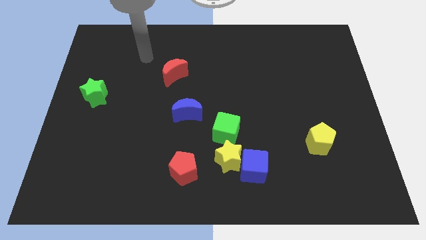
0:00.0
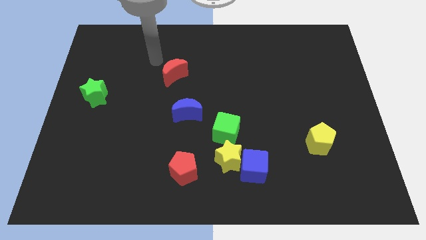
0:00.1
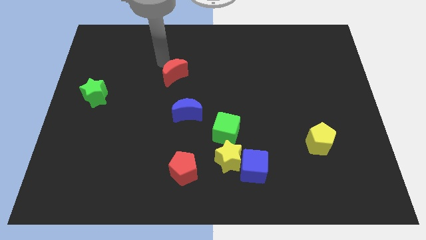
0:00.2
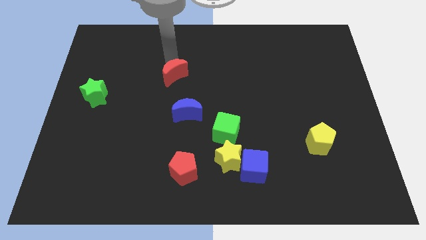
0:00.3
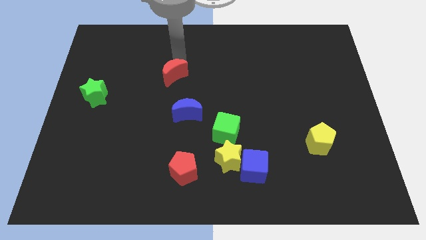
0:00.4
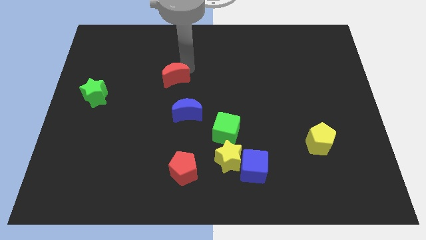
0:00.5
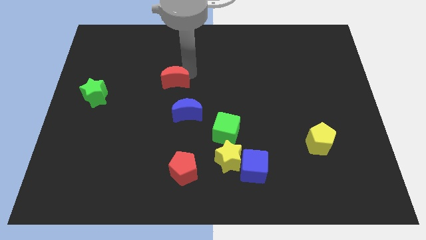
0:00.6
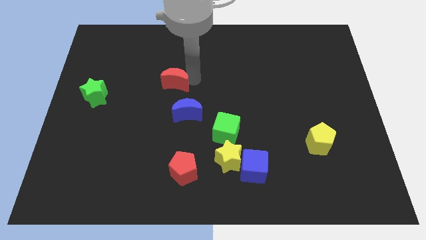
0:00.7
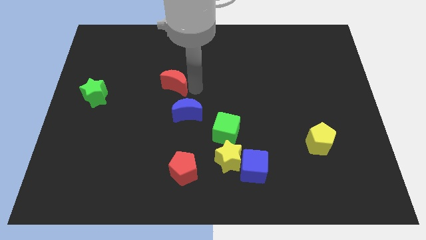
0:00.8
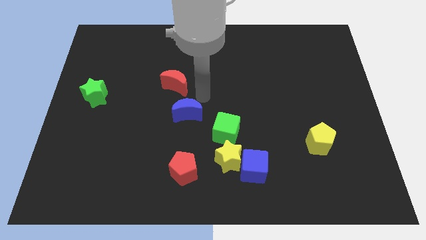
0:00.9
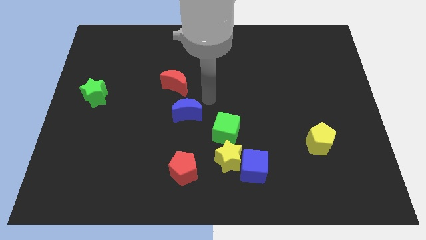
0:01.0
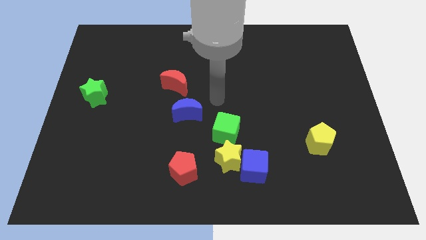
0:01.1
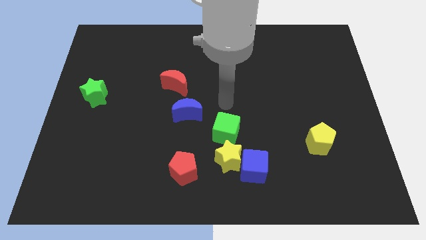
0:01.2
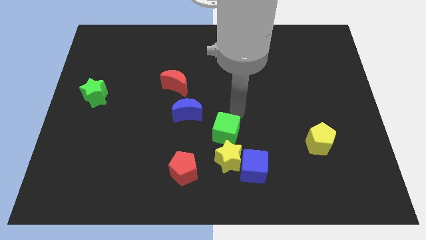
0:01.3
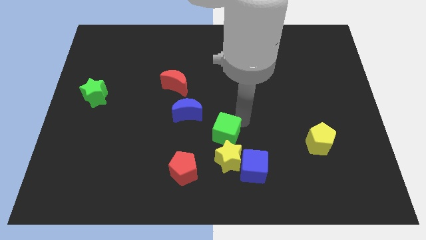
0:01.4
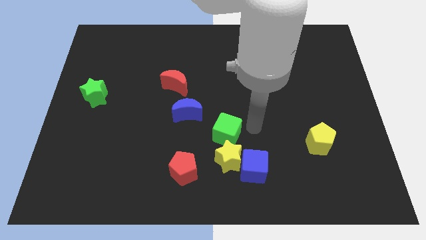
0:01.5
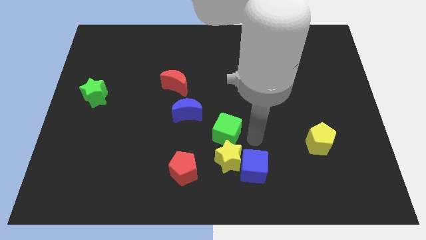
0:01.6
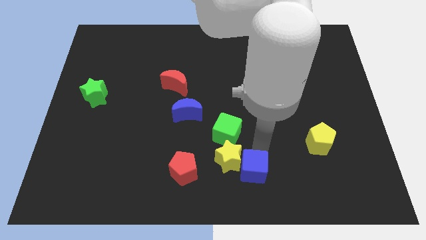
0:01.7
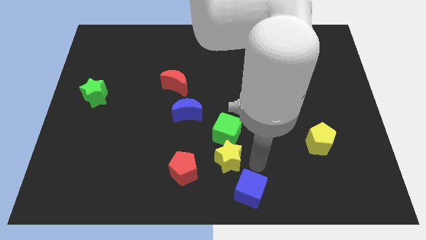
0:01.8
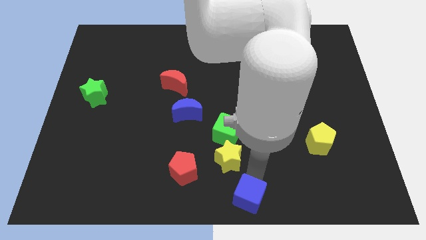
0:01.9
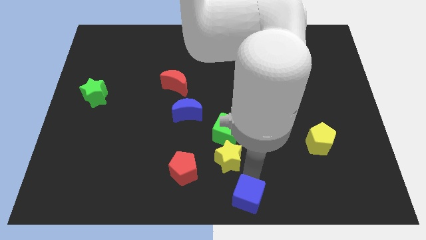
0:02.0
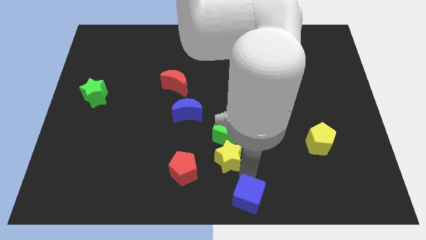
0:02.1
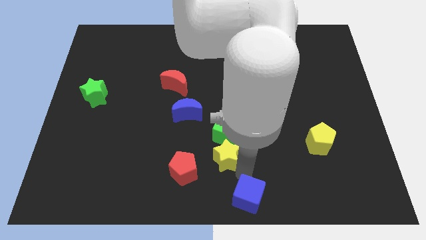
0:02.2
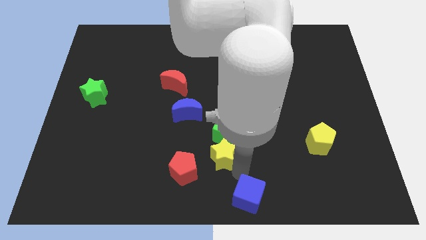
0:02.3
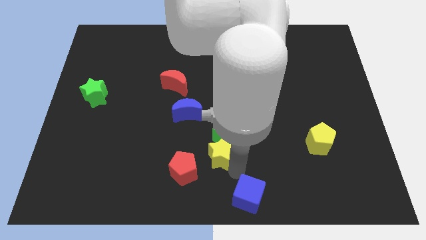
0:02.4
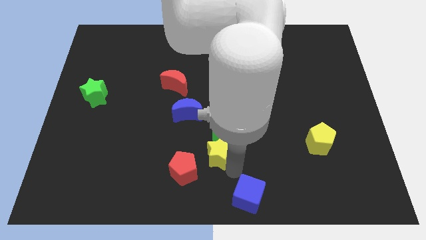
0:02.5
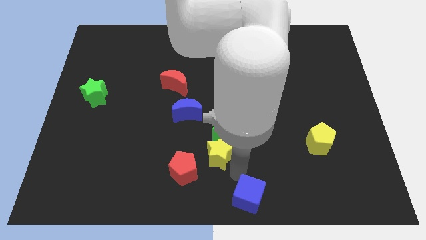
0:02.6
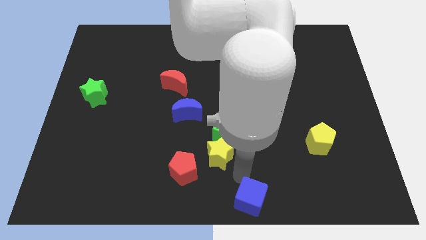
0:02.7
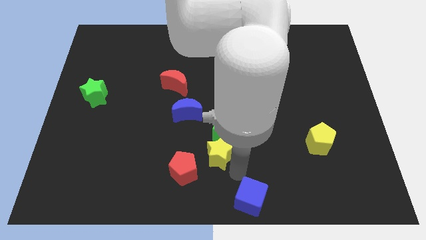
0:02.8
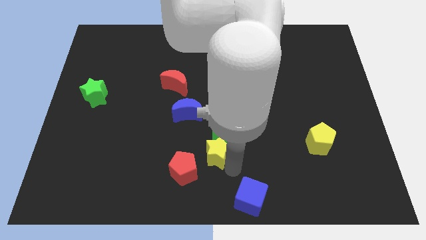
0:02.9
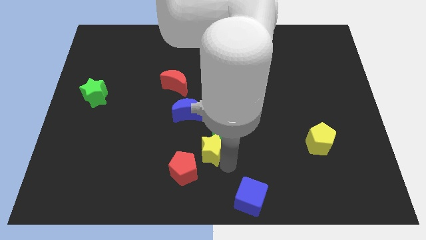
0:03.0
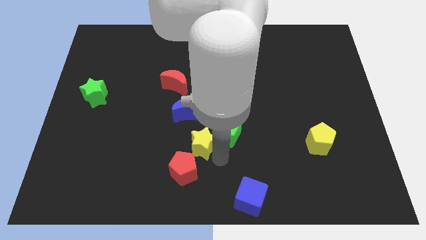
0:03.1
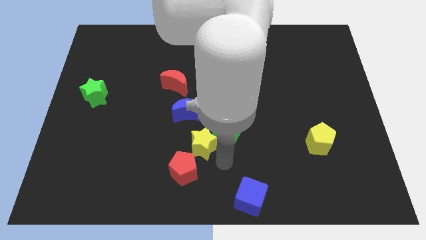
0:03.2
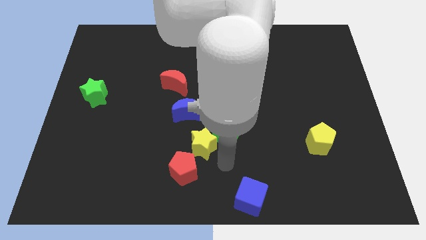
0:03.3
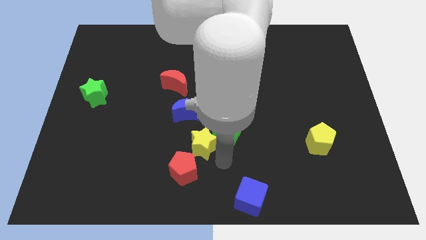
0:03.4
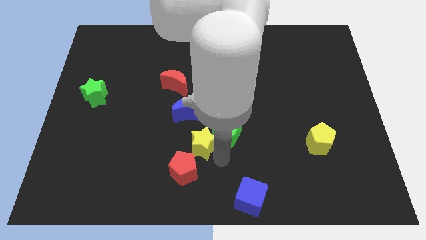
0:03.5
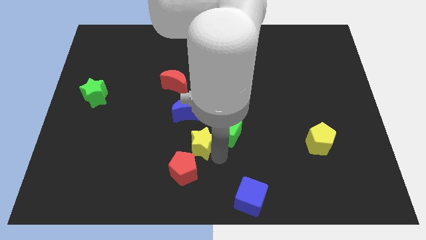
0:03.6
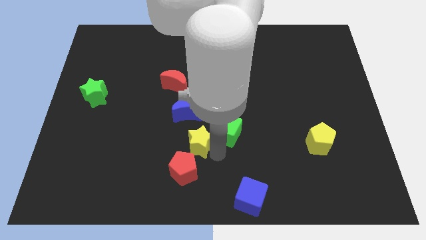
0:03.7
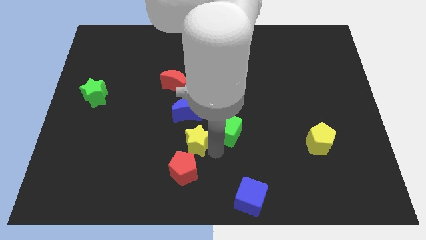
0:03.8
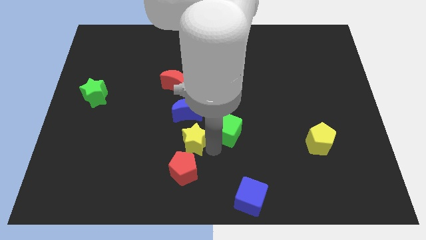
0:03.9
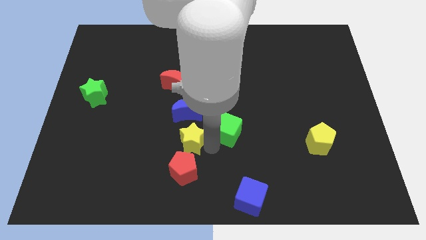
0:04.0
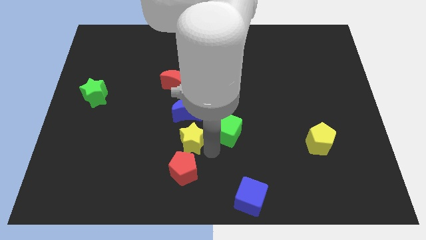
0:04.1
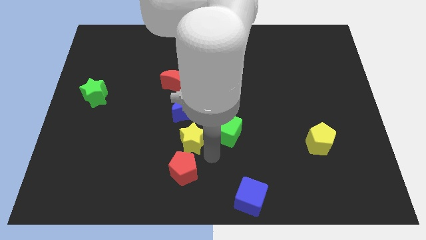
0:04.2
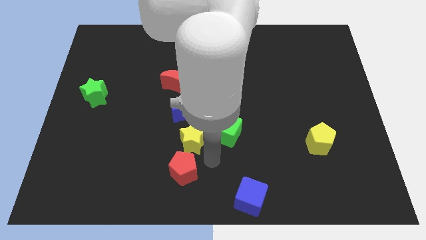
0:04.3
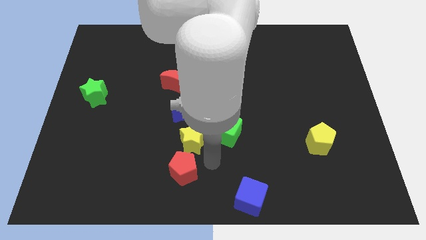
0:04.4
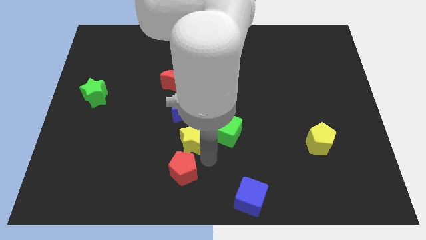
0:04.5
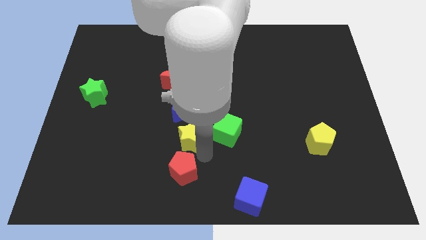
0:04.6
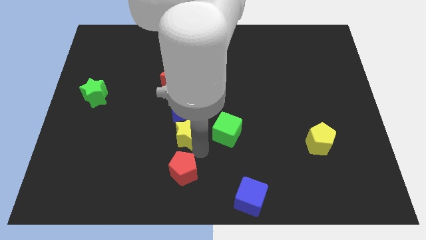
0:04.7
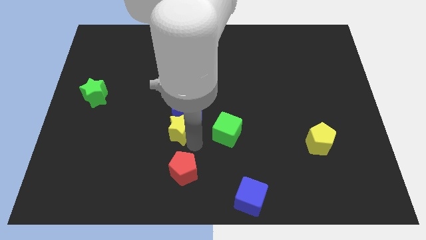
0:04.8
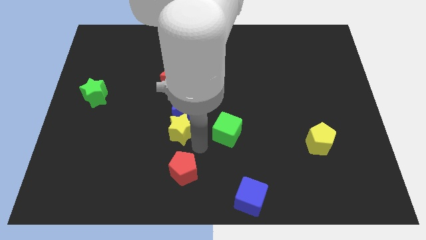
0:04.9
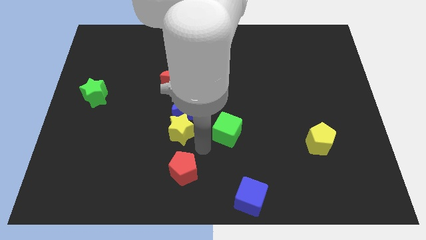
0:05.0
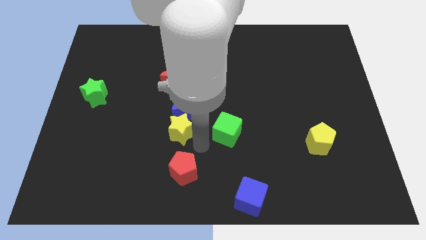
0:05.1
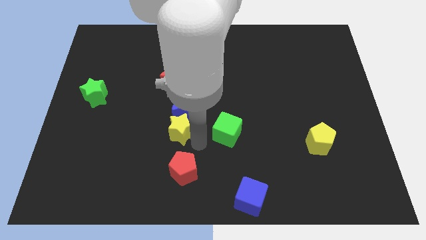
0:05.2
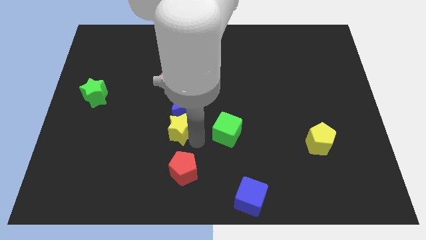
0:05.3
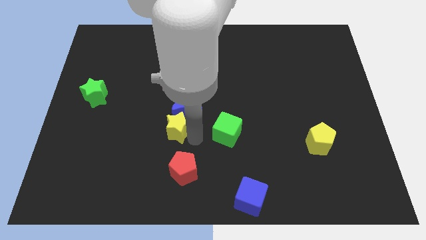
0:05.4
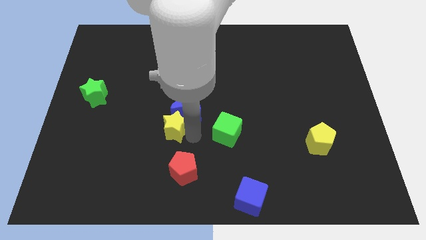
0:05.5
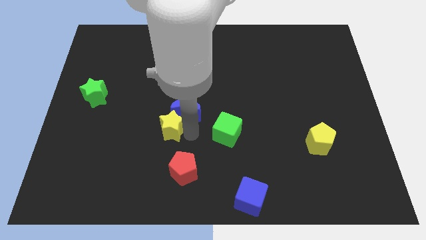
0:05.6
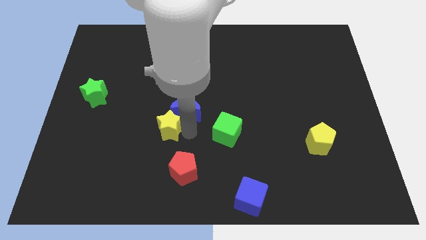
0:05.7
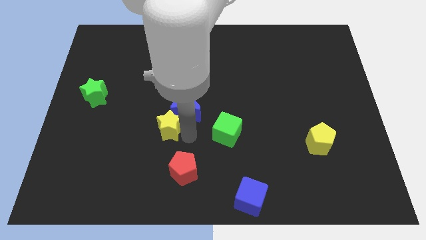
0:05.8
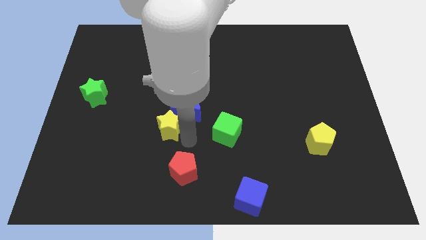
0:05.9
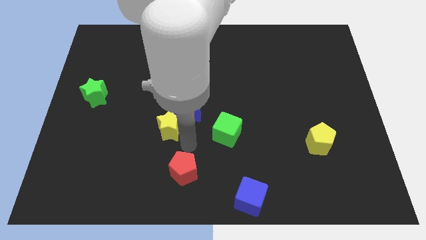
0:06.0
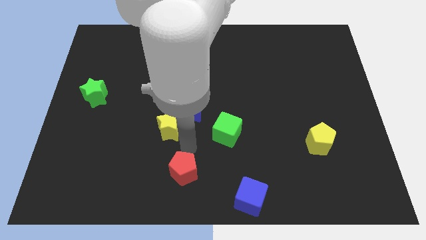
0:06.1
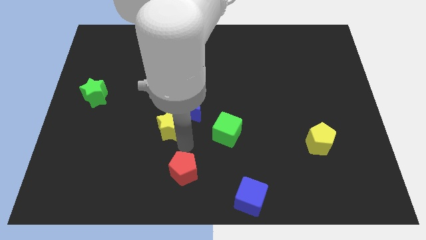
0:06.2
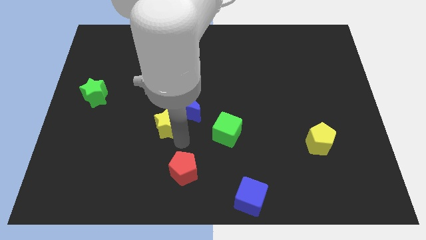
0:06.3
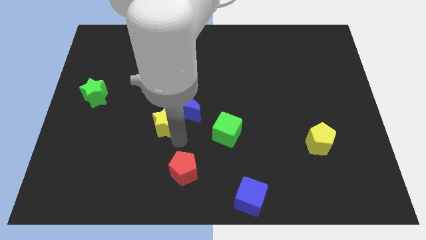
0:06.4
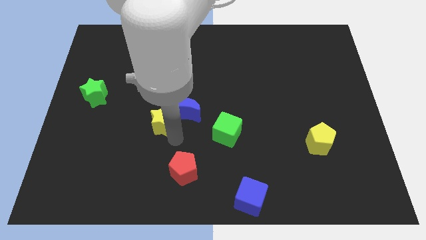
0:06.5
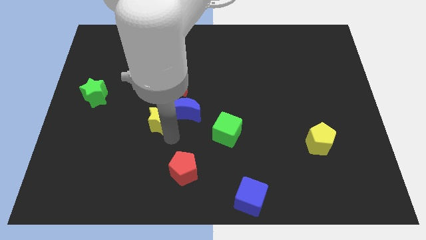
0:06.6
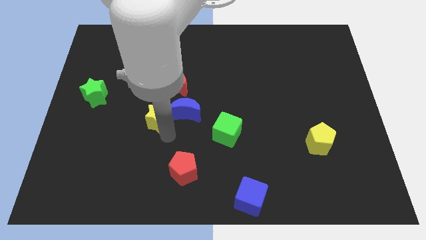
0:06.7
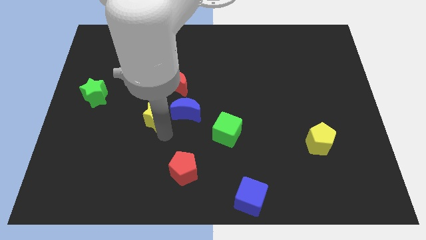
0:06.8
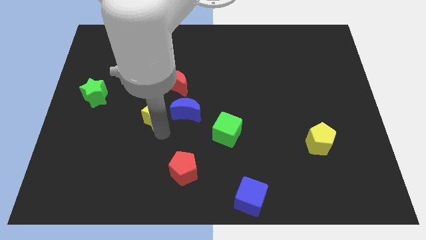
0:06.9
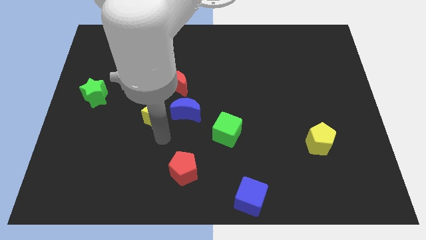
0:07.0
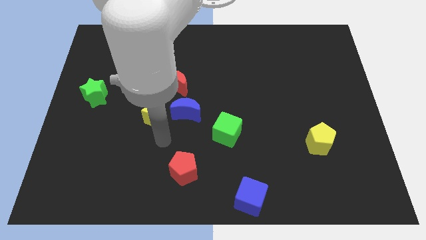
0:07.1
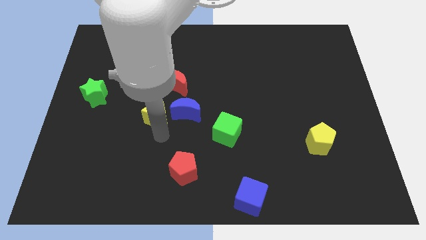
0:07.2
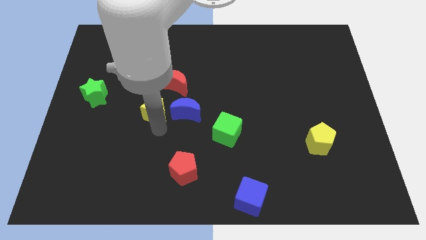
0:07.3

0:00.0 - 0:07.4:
slide the yellow star upwards and left

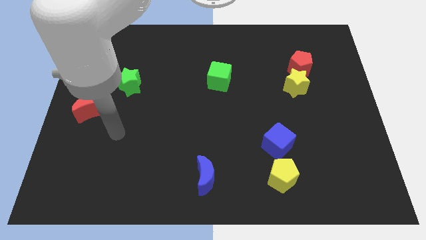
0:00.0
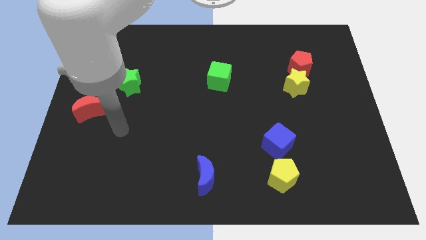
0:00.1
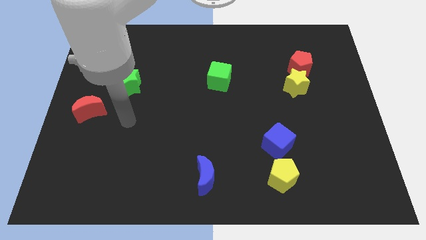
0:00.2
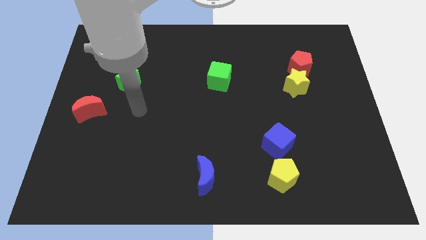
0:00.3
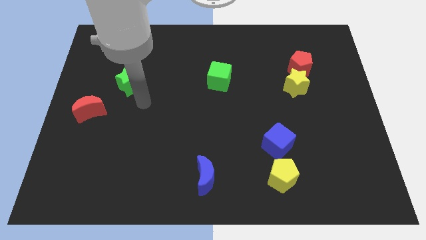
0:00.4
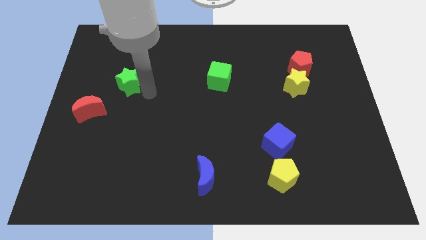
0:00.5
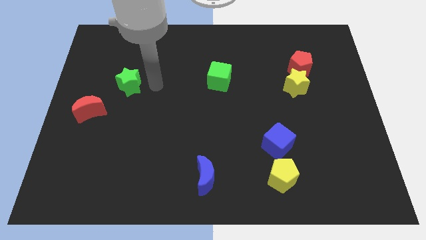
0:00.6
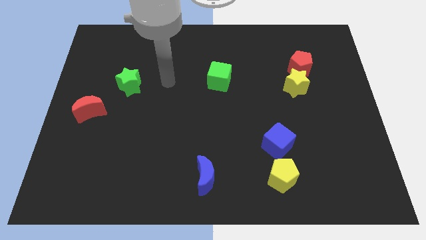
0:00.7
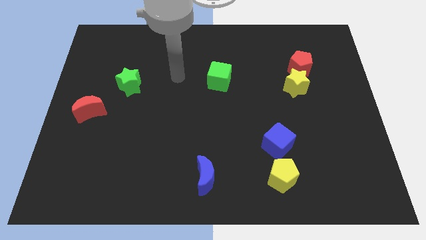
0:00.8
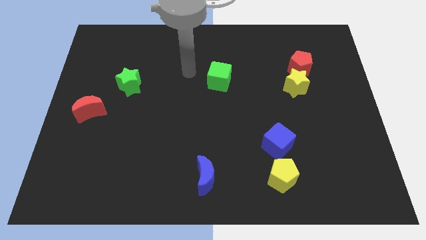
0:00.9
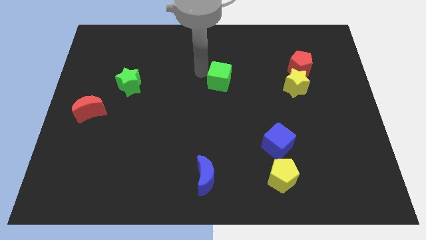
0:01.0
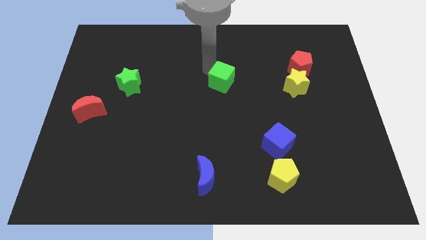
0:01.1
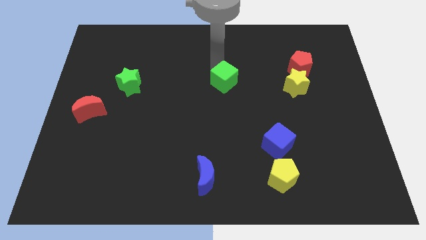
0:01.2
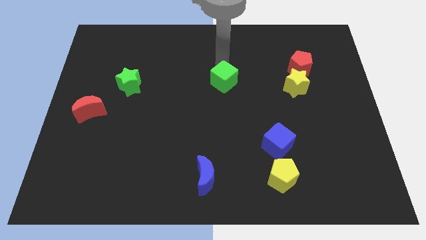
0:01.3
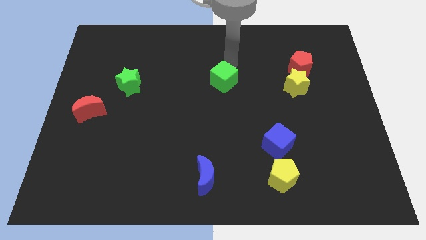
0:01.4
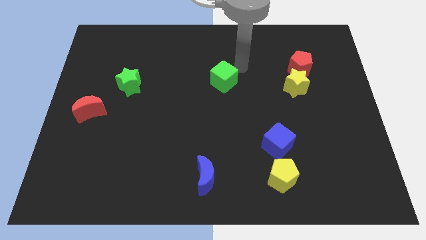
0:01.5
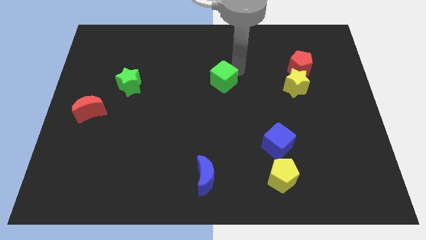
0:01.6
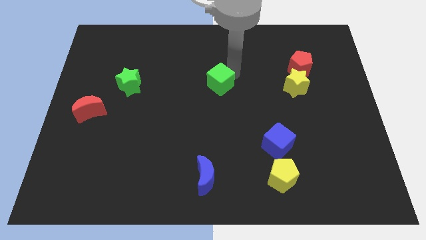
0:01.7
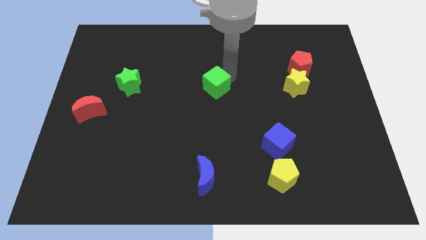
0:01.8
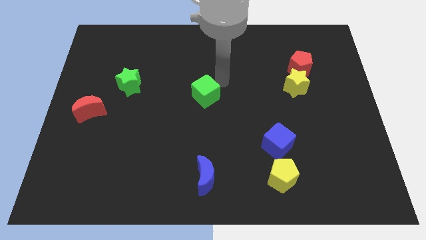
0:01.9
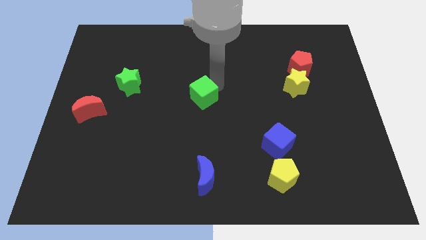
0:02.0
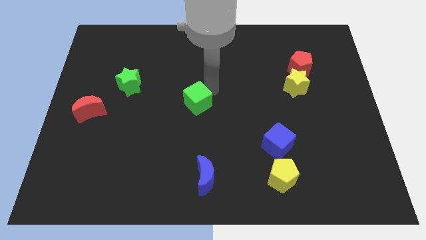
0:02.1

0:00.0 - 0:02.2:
slightly push the green cube downwards and then to the left
